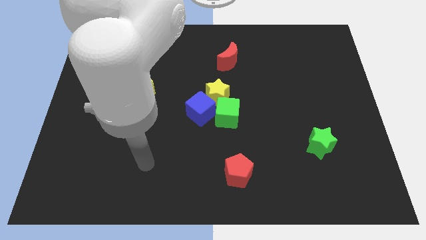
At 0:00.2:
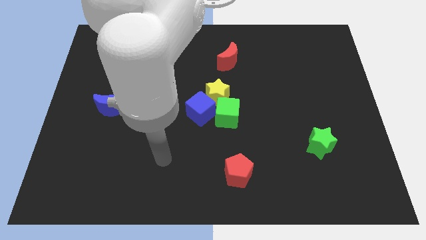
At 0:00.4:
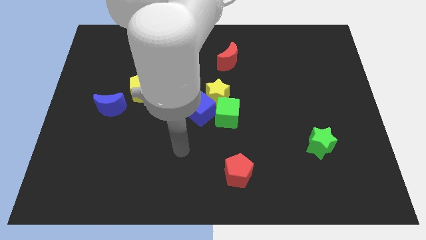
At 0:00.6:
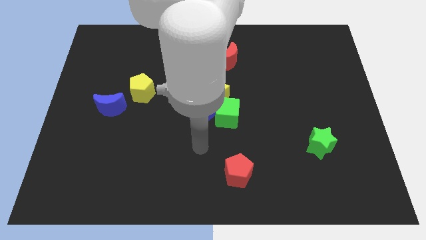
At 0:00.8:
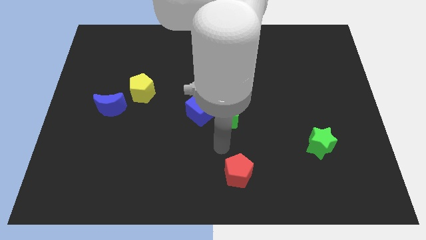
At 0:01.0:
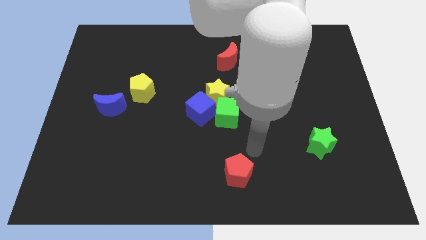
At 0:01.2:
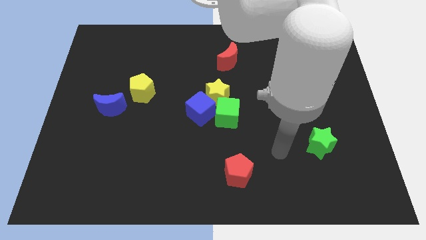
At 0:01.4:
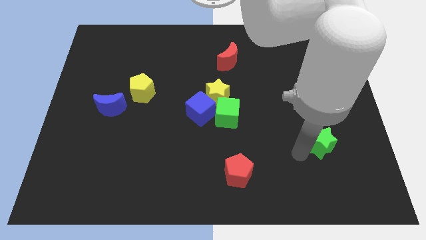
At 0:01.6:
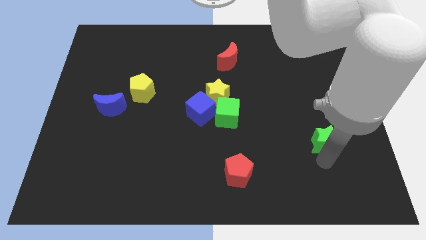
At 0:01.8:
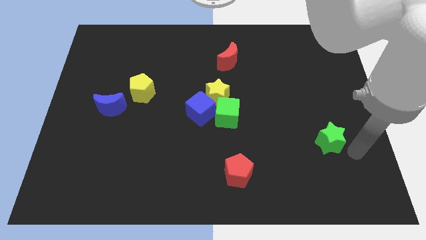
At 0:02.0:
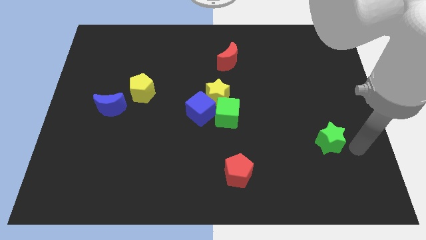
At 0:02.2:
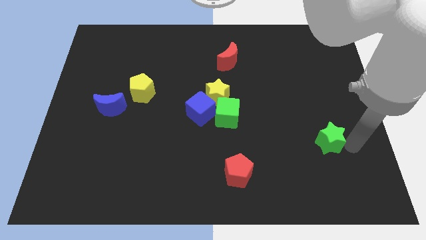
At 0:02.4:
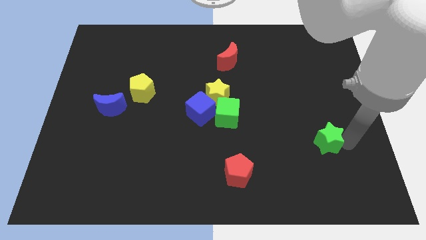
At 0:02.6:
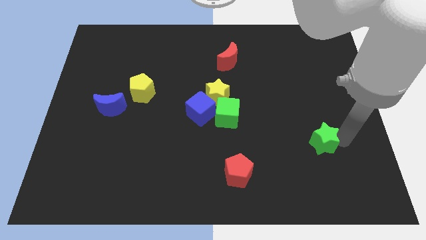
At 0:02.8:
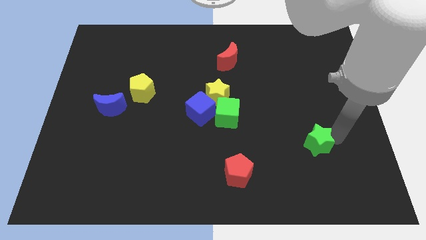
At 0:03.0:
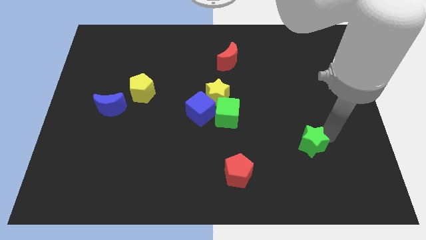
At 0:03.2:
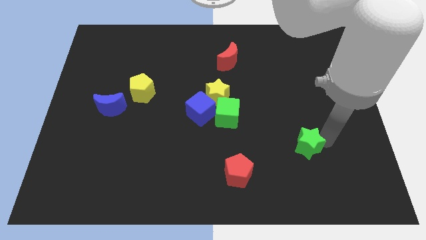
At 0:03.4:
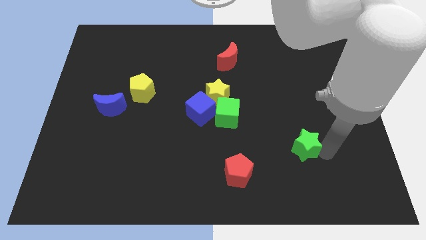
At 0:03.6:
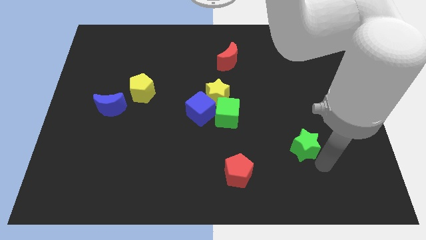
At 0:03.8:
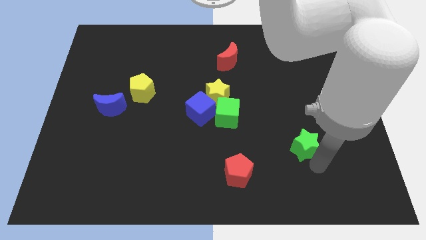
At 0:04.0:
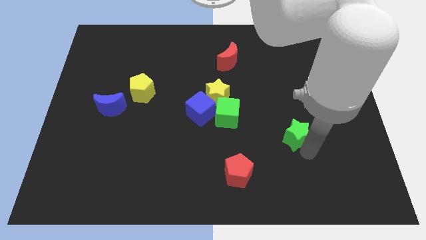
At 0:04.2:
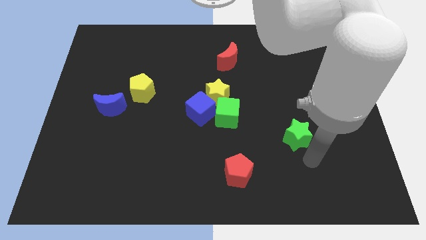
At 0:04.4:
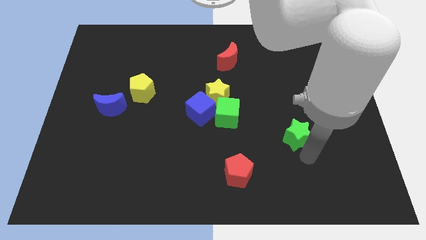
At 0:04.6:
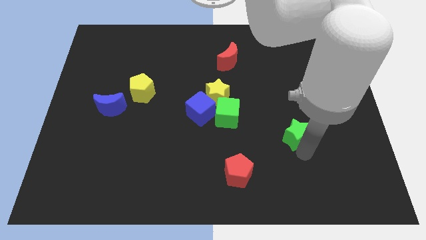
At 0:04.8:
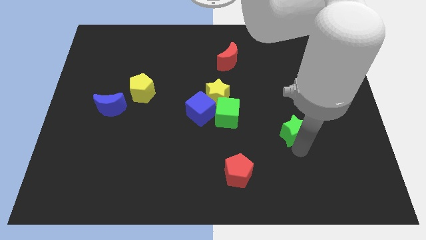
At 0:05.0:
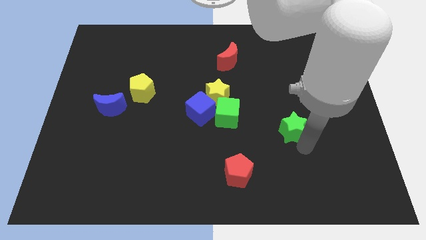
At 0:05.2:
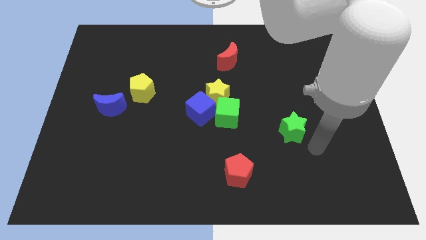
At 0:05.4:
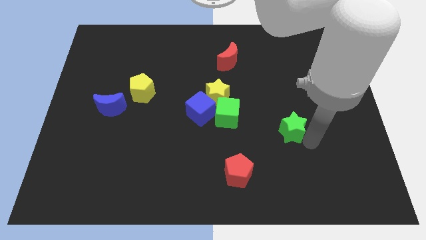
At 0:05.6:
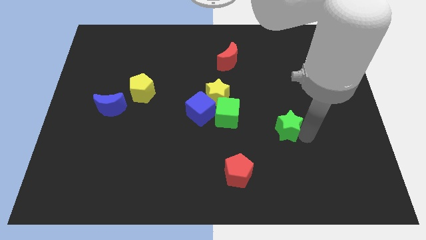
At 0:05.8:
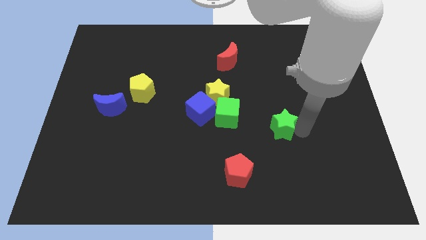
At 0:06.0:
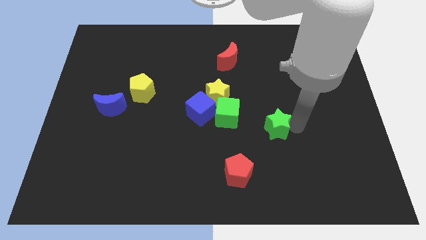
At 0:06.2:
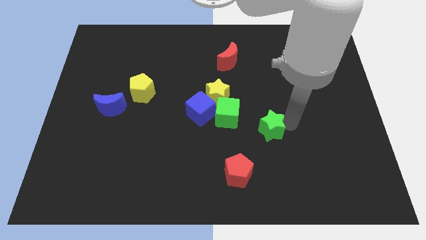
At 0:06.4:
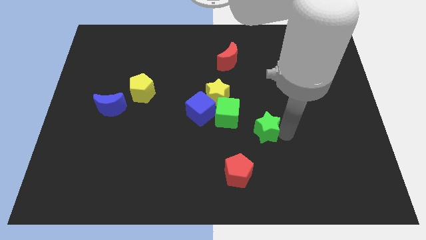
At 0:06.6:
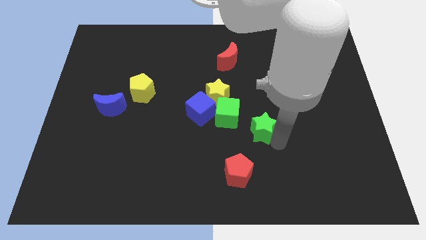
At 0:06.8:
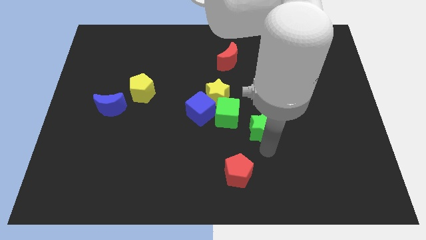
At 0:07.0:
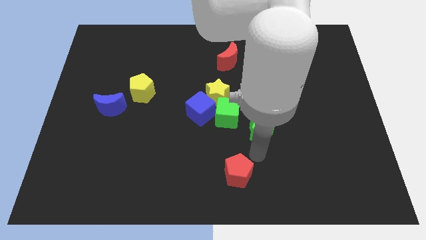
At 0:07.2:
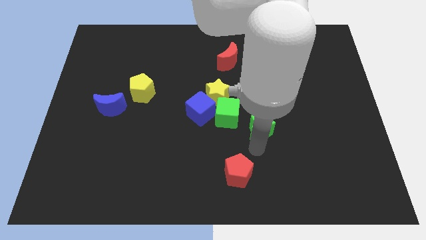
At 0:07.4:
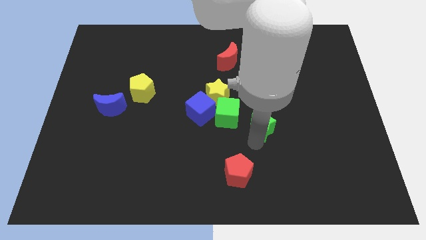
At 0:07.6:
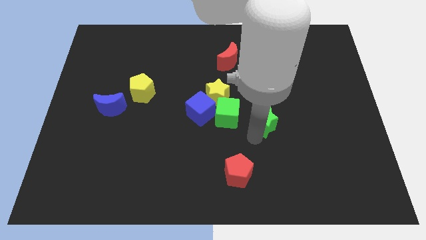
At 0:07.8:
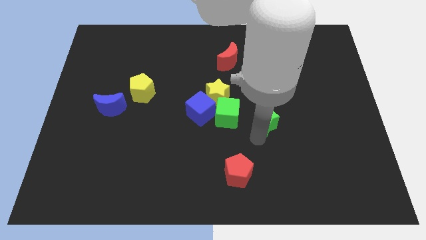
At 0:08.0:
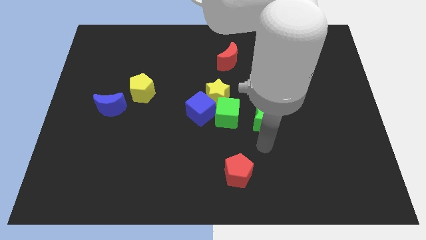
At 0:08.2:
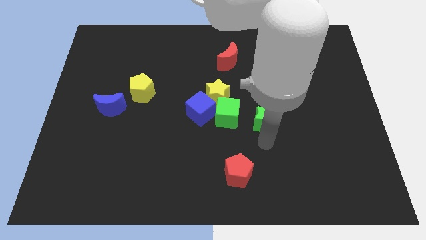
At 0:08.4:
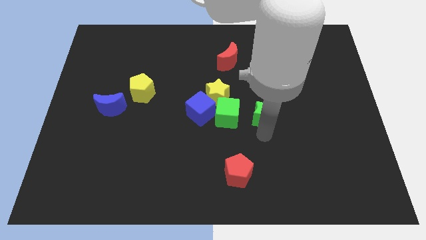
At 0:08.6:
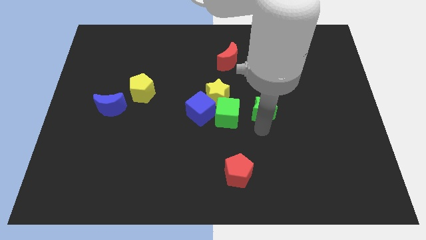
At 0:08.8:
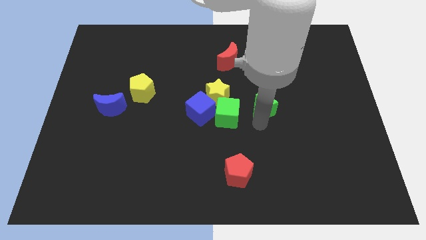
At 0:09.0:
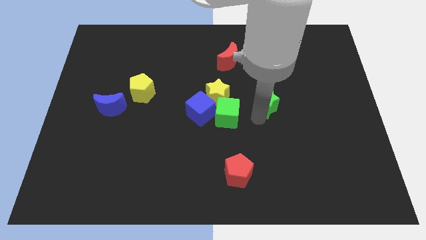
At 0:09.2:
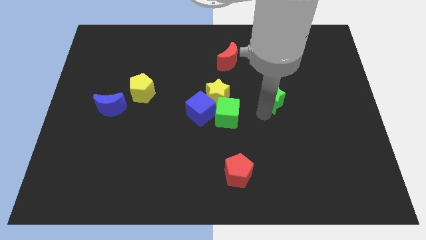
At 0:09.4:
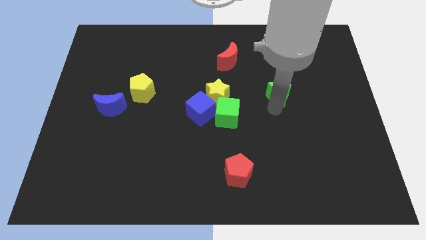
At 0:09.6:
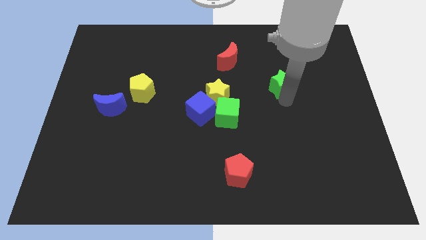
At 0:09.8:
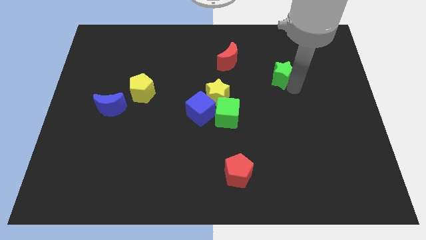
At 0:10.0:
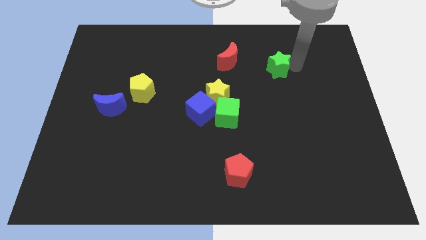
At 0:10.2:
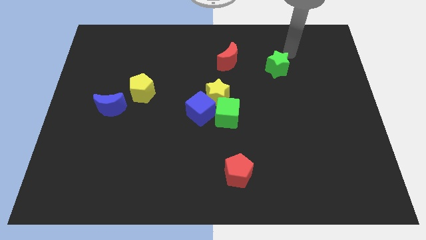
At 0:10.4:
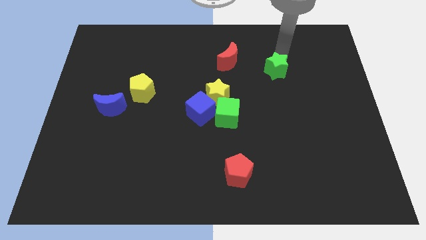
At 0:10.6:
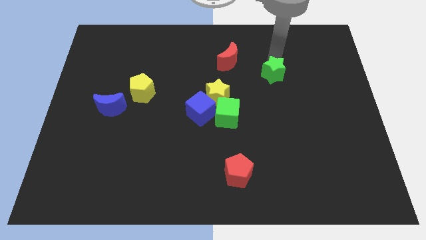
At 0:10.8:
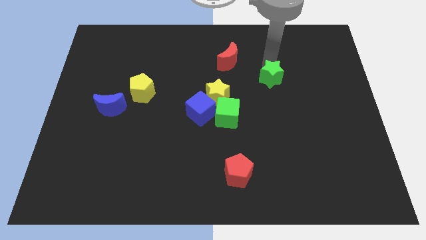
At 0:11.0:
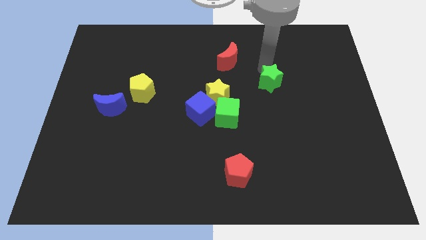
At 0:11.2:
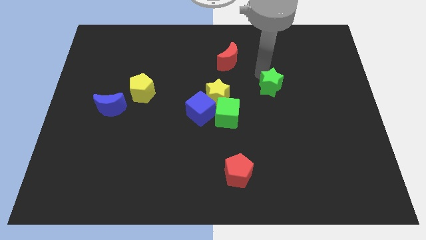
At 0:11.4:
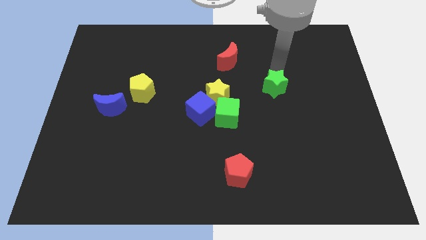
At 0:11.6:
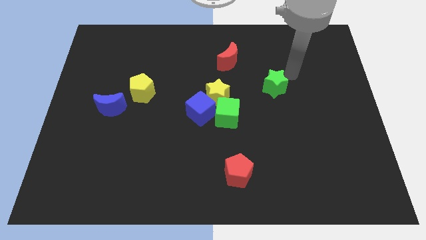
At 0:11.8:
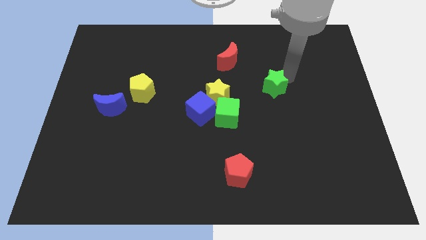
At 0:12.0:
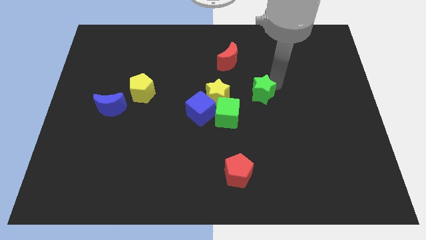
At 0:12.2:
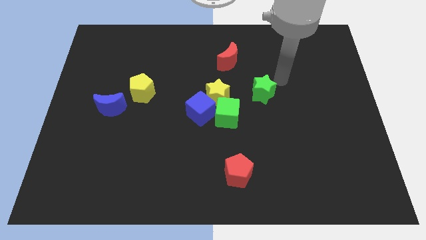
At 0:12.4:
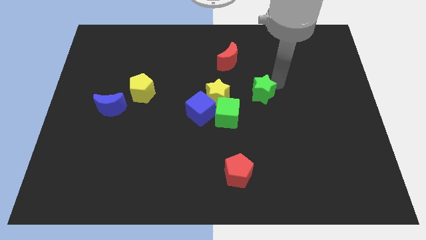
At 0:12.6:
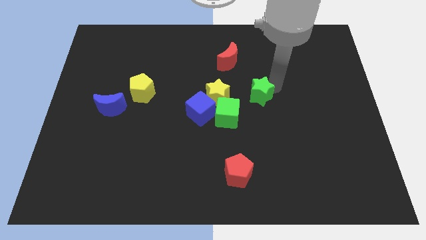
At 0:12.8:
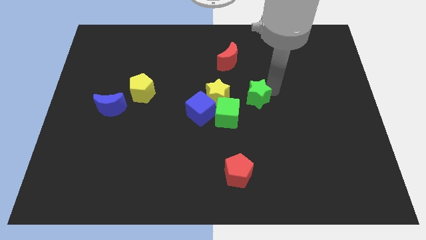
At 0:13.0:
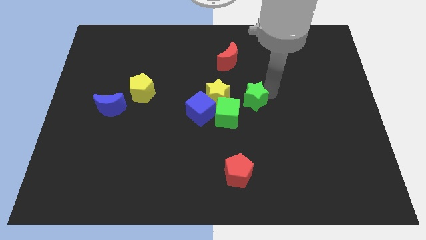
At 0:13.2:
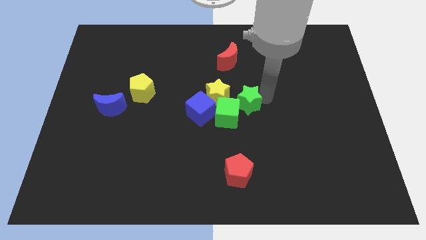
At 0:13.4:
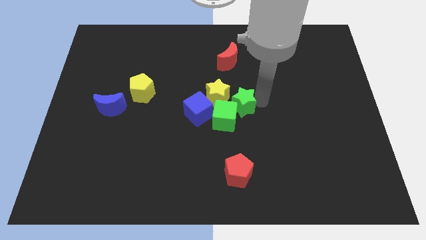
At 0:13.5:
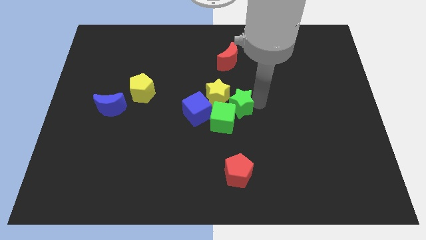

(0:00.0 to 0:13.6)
push the green star close to the yellow star
